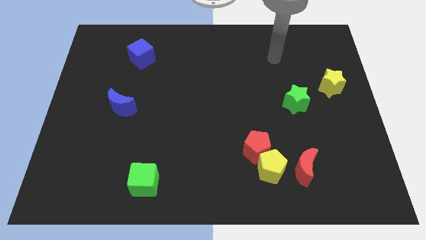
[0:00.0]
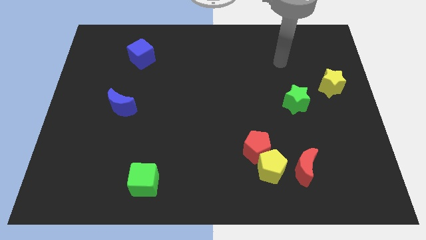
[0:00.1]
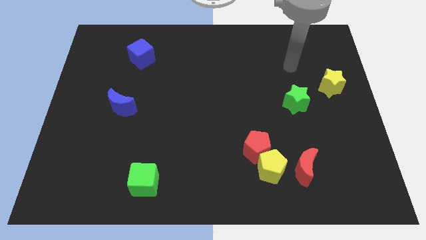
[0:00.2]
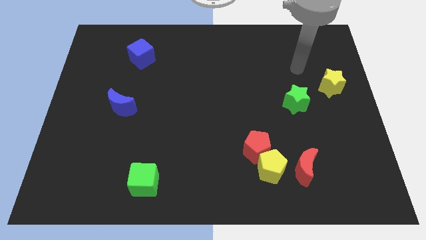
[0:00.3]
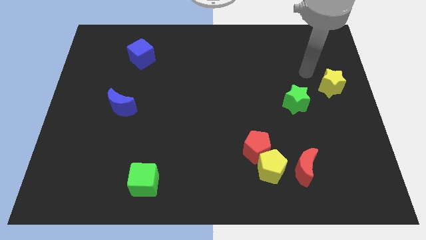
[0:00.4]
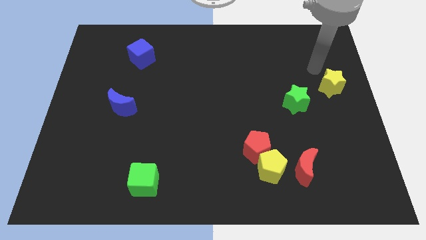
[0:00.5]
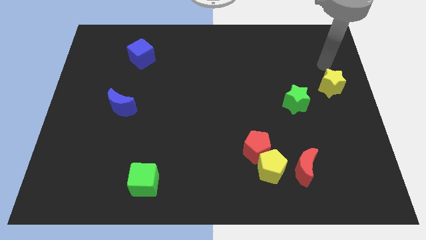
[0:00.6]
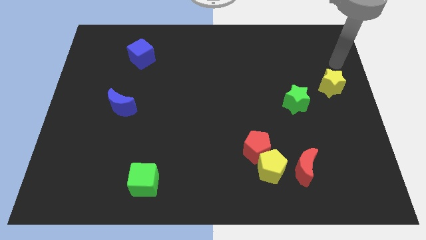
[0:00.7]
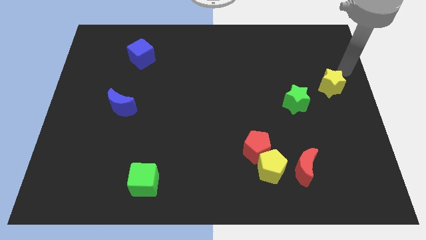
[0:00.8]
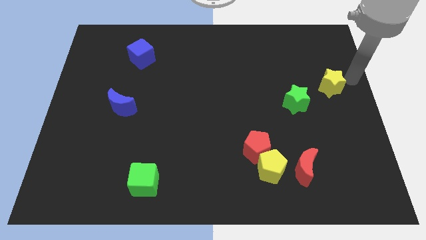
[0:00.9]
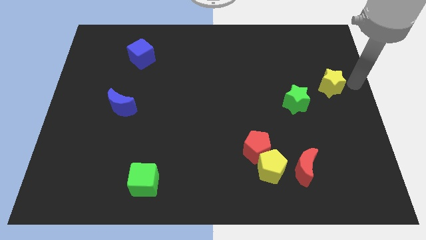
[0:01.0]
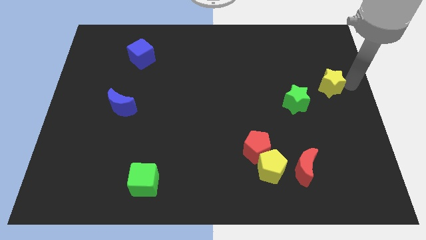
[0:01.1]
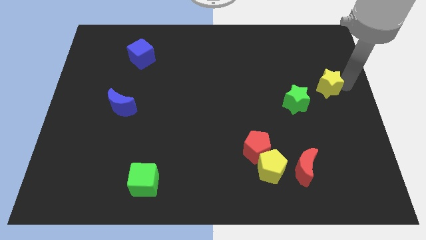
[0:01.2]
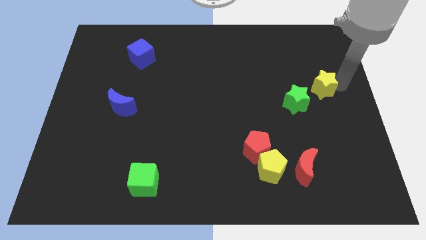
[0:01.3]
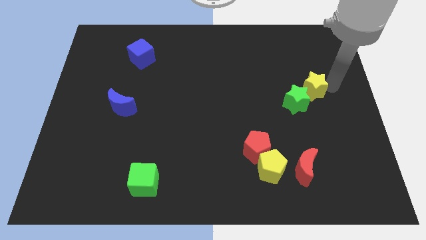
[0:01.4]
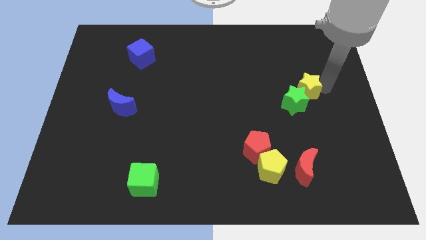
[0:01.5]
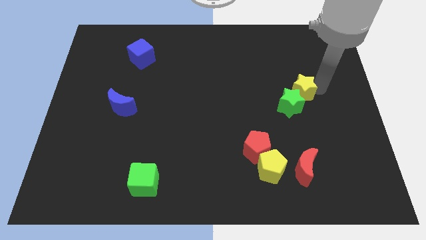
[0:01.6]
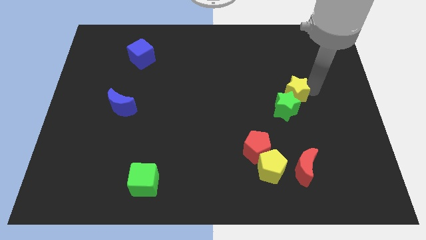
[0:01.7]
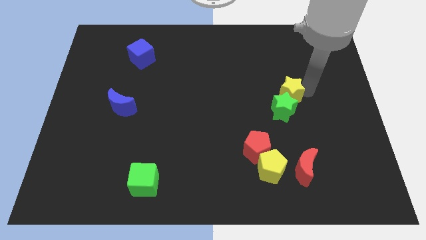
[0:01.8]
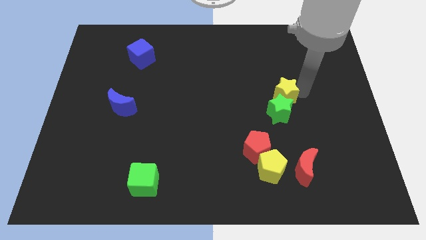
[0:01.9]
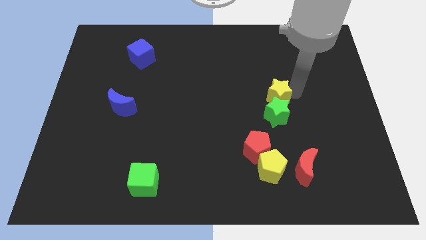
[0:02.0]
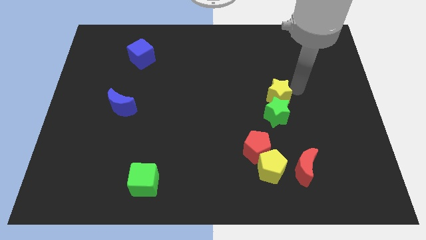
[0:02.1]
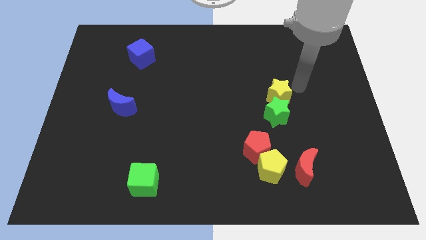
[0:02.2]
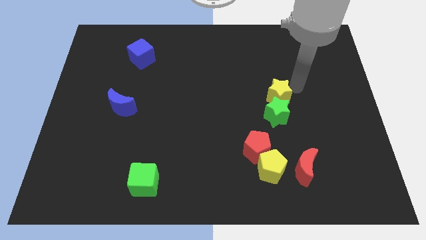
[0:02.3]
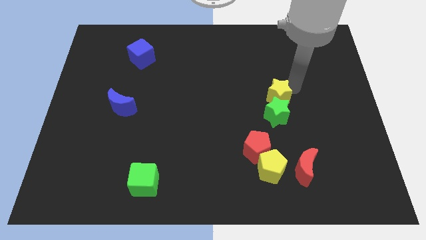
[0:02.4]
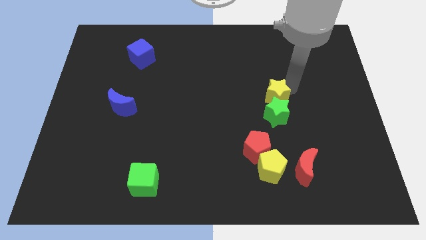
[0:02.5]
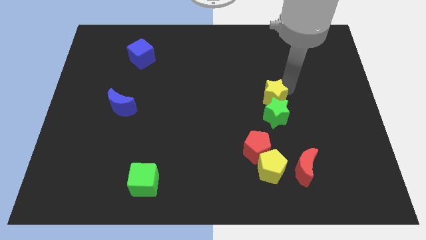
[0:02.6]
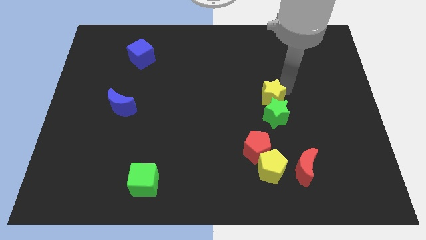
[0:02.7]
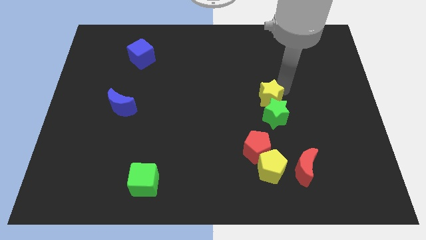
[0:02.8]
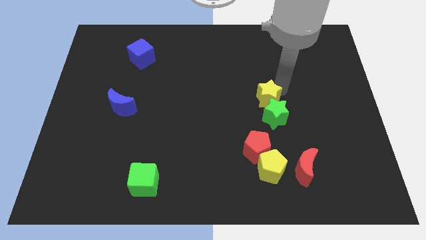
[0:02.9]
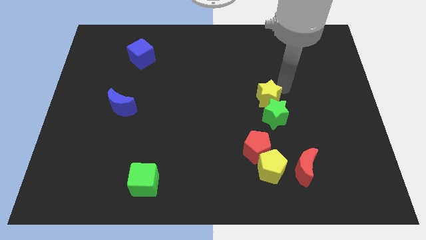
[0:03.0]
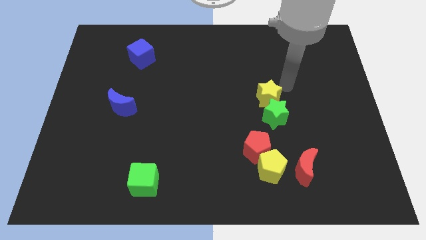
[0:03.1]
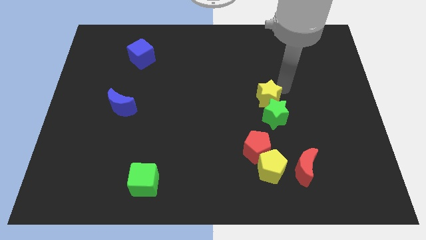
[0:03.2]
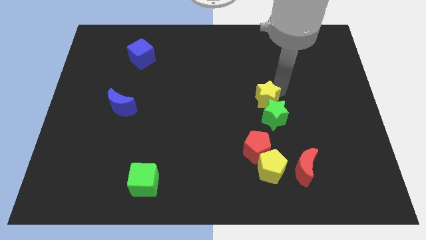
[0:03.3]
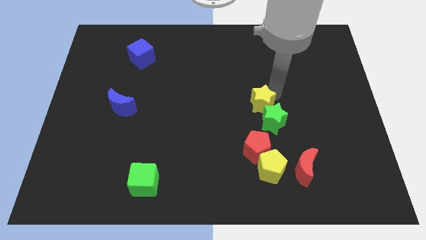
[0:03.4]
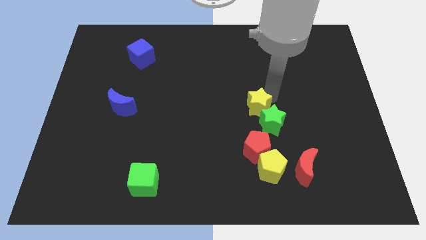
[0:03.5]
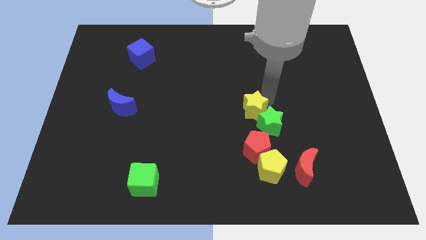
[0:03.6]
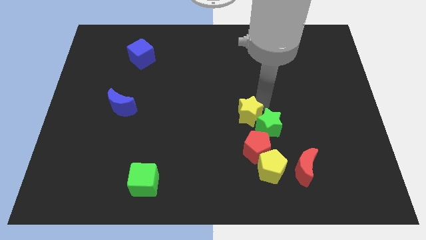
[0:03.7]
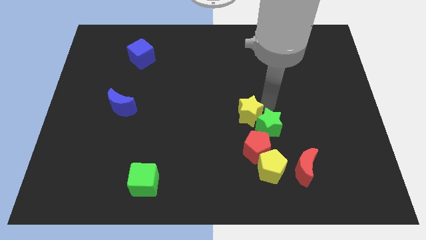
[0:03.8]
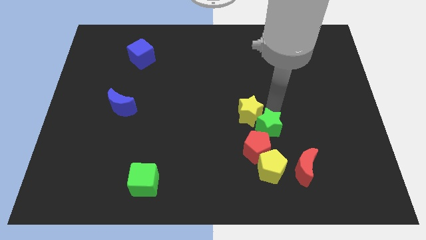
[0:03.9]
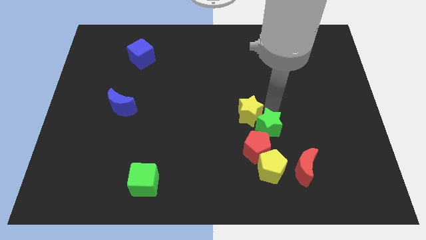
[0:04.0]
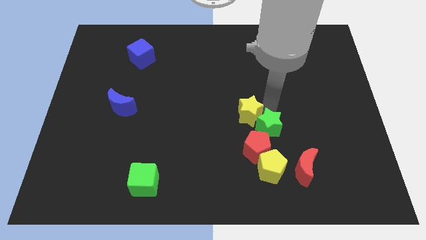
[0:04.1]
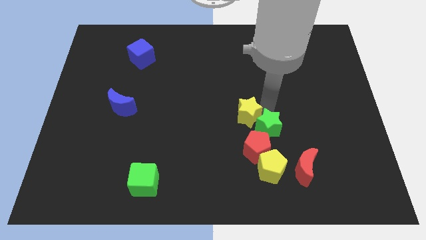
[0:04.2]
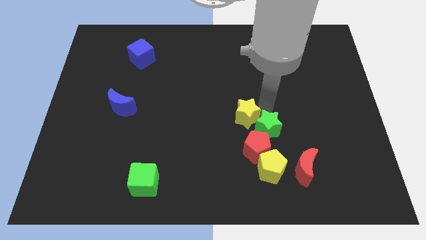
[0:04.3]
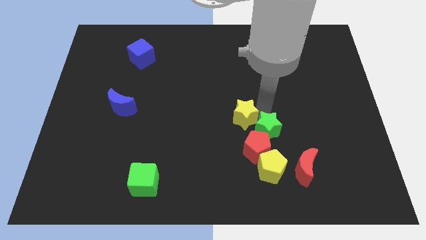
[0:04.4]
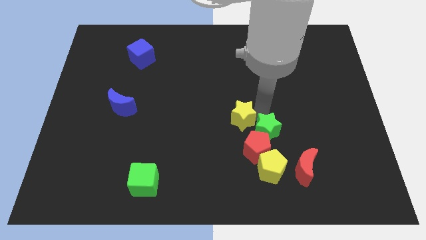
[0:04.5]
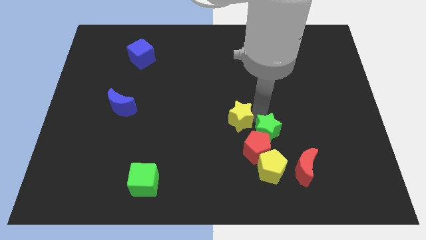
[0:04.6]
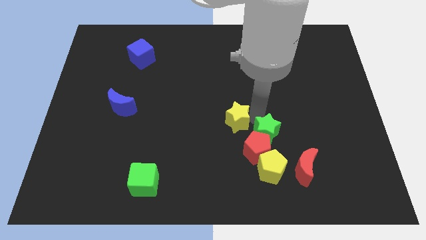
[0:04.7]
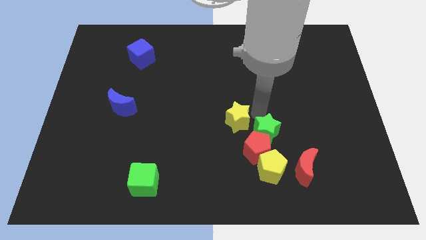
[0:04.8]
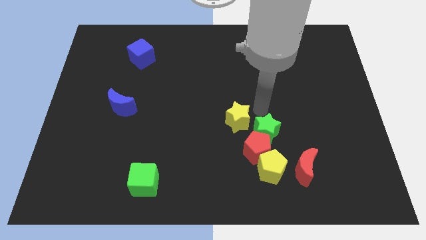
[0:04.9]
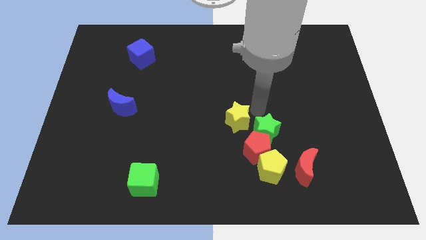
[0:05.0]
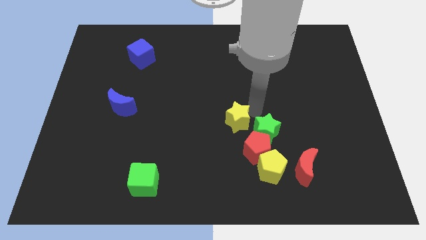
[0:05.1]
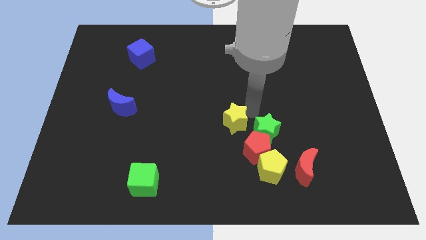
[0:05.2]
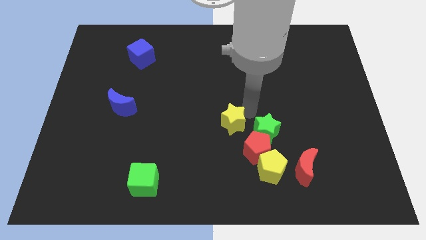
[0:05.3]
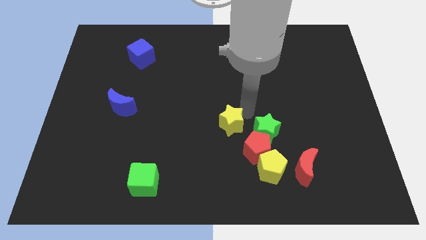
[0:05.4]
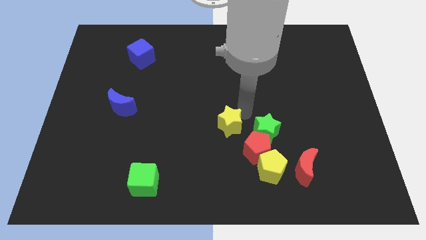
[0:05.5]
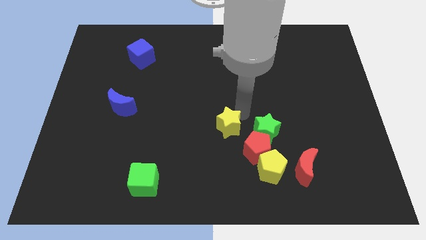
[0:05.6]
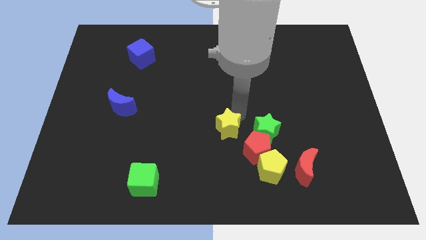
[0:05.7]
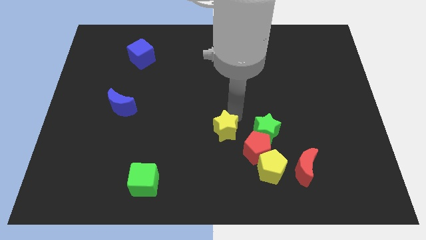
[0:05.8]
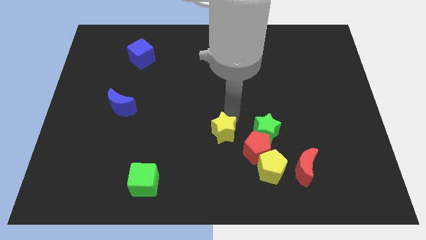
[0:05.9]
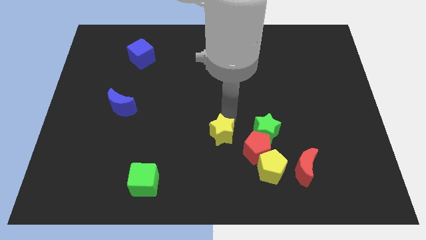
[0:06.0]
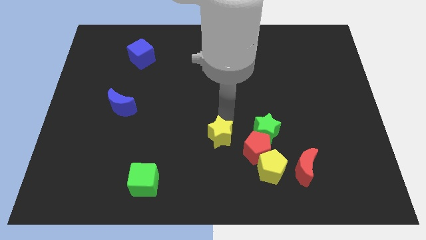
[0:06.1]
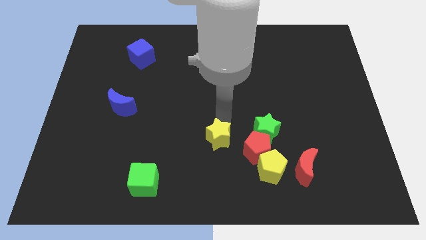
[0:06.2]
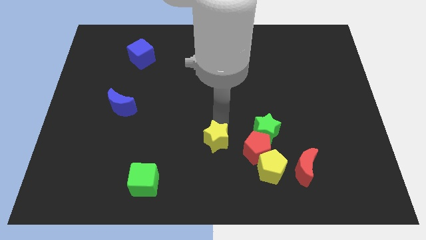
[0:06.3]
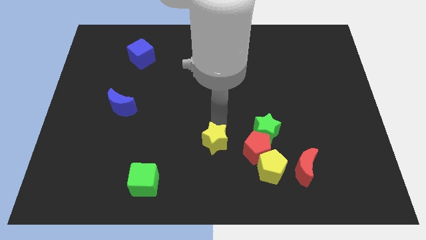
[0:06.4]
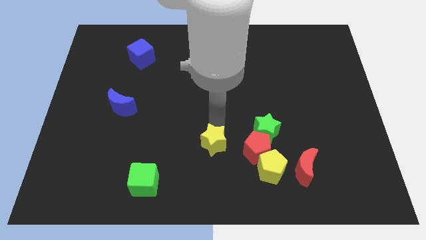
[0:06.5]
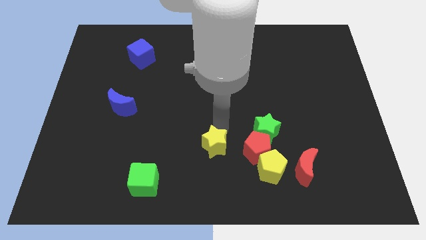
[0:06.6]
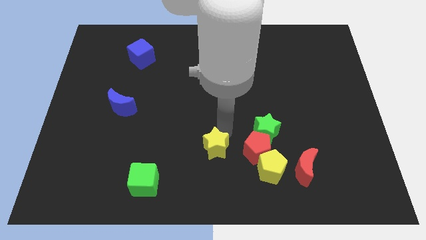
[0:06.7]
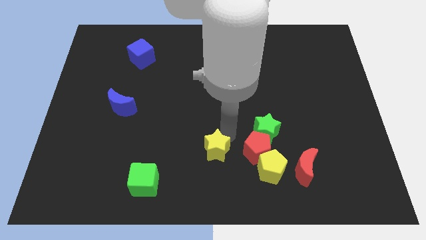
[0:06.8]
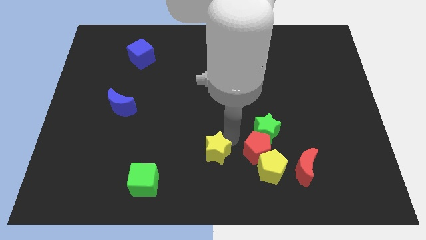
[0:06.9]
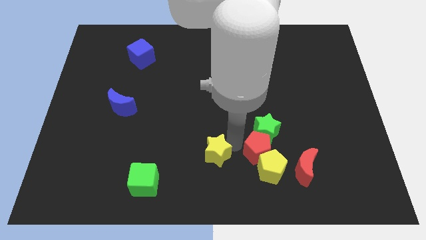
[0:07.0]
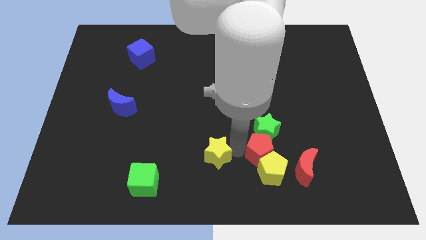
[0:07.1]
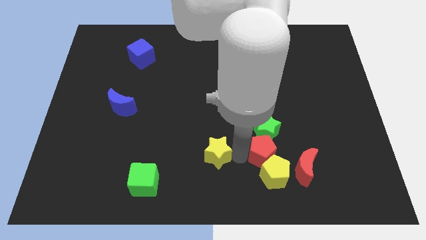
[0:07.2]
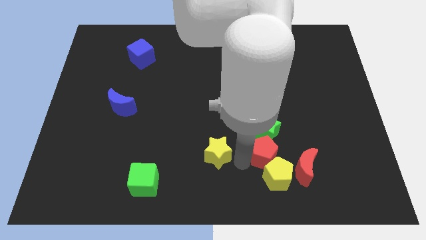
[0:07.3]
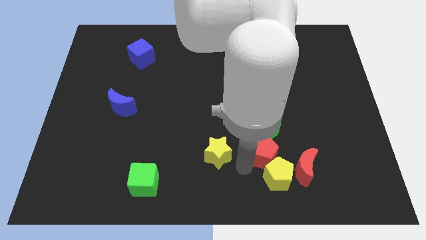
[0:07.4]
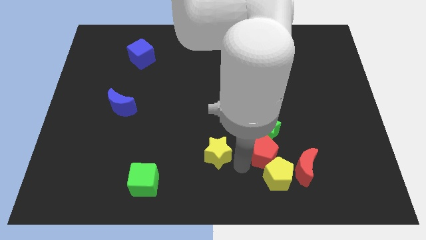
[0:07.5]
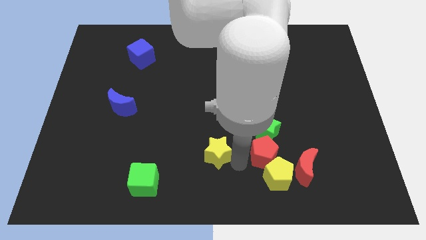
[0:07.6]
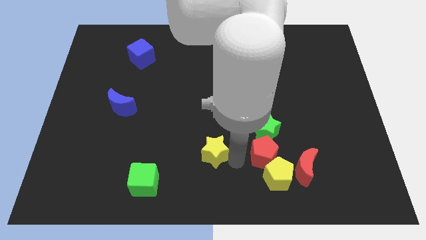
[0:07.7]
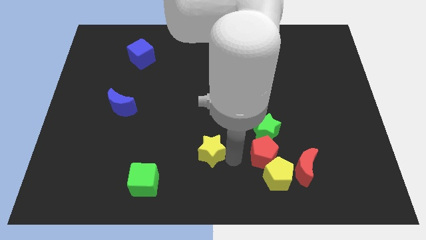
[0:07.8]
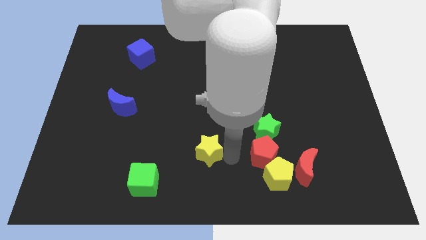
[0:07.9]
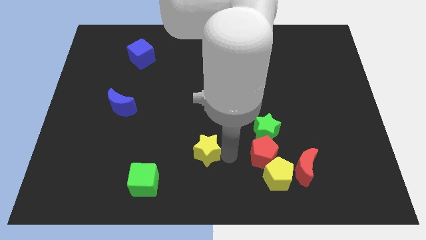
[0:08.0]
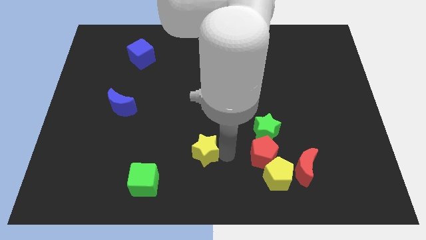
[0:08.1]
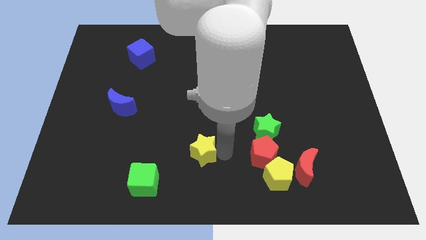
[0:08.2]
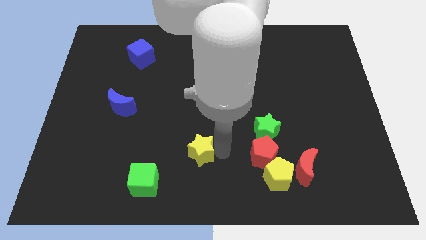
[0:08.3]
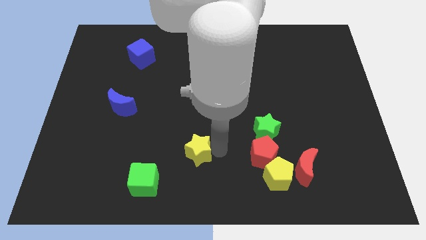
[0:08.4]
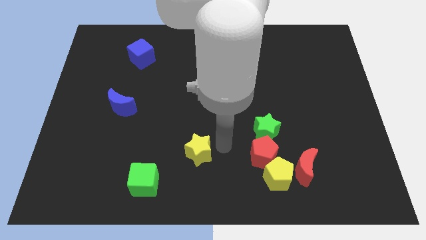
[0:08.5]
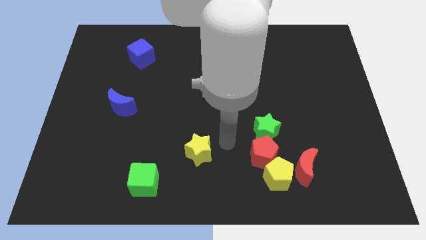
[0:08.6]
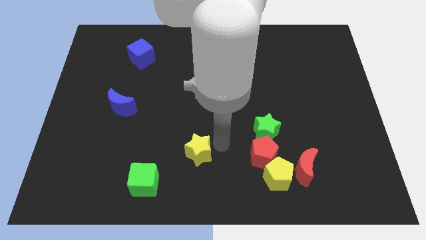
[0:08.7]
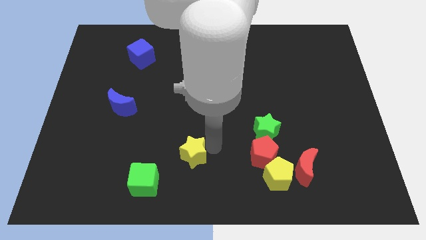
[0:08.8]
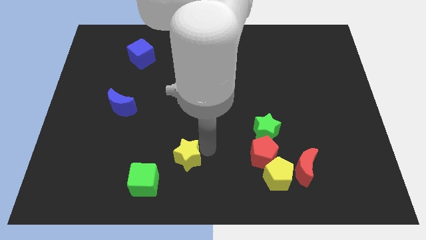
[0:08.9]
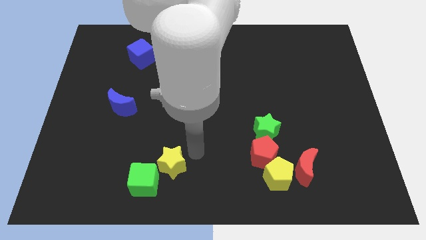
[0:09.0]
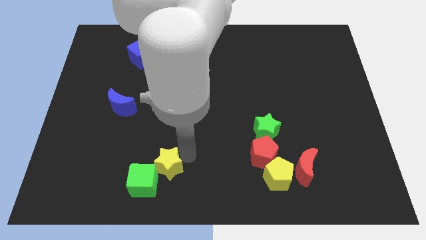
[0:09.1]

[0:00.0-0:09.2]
push the yellow star to the green cube
